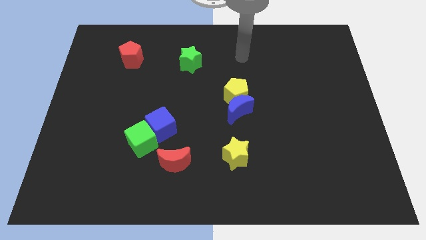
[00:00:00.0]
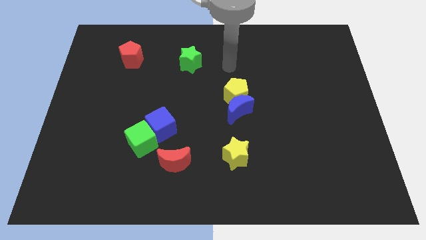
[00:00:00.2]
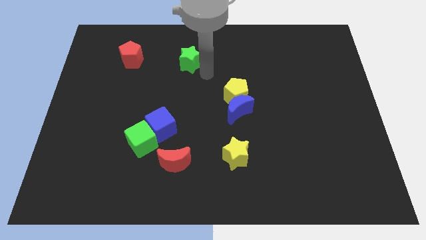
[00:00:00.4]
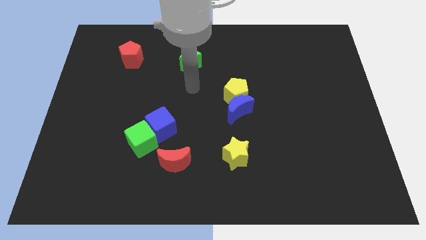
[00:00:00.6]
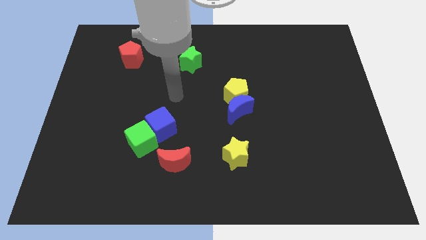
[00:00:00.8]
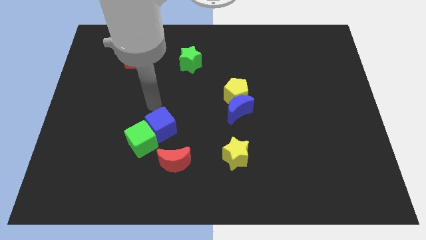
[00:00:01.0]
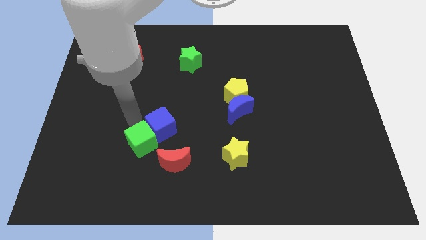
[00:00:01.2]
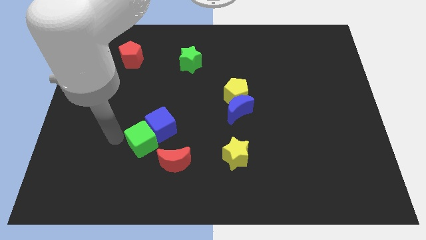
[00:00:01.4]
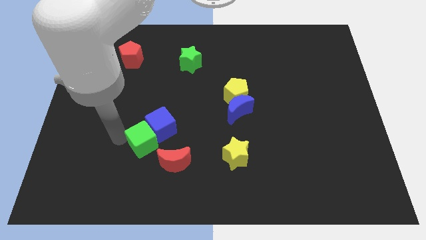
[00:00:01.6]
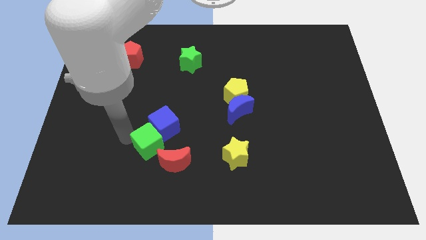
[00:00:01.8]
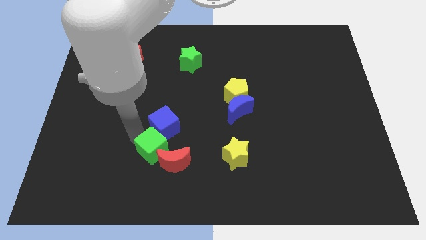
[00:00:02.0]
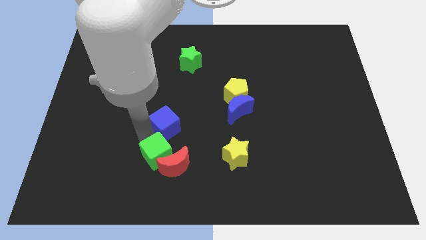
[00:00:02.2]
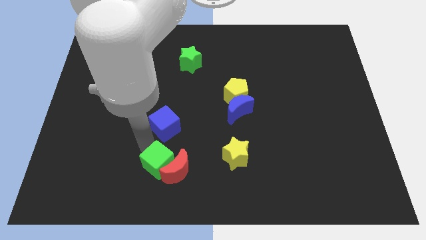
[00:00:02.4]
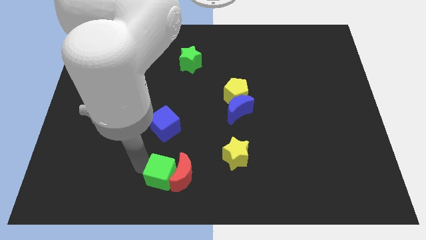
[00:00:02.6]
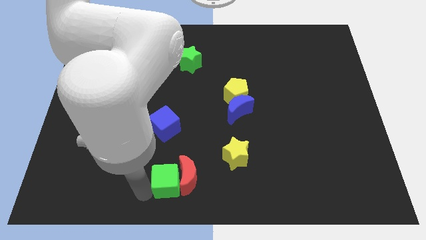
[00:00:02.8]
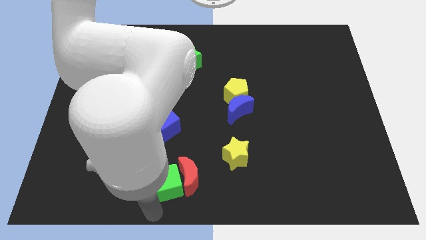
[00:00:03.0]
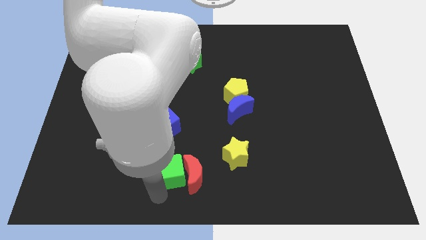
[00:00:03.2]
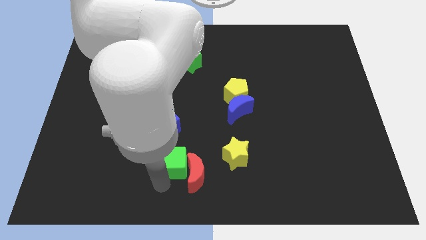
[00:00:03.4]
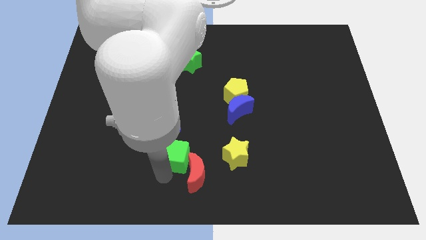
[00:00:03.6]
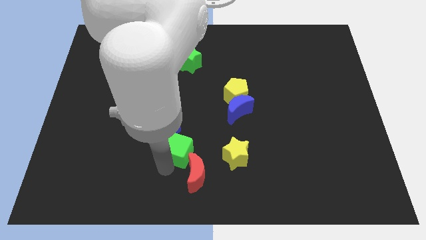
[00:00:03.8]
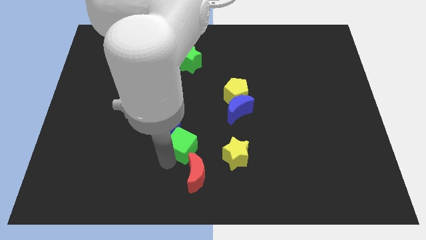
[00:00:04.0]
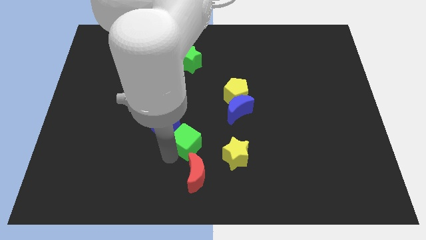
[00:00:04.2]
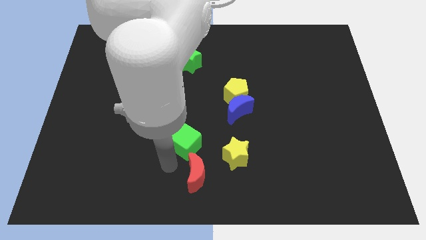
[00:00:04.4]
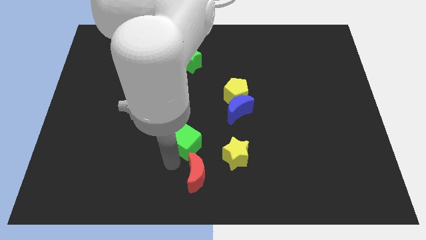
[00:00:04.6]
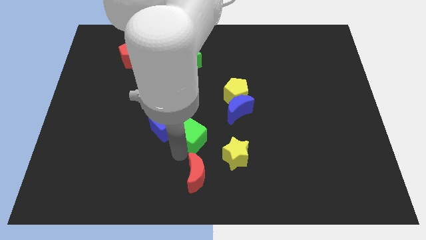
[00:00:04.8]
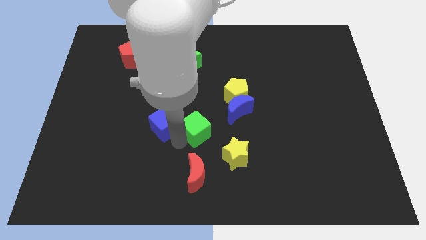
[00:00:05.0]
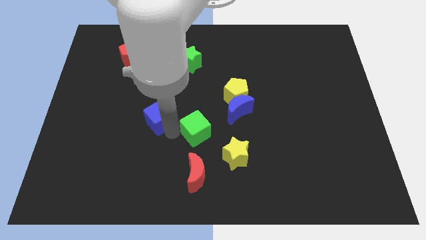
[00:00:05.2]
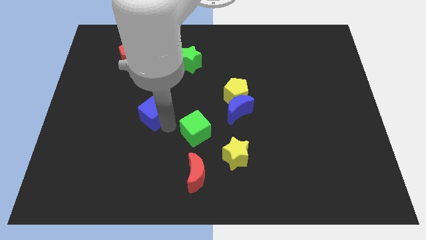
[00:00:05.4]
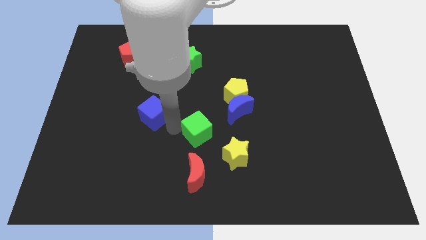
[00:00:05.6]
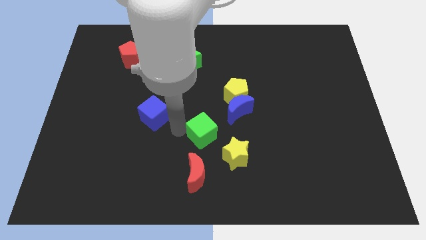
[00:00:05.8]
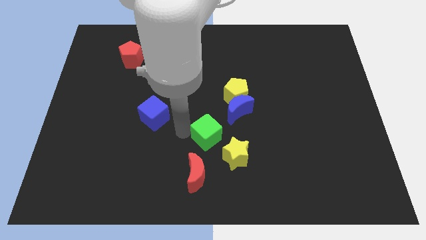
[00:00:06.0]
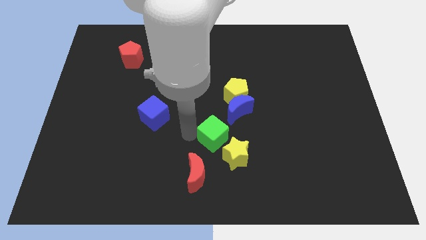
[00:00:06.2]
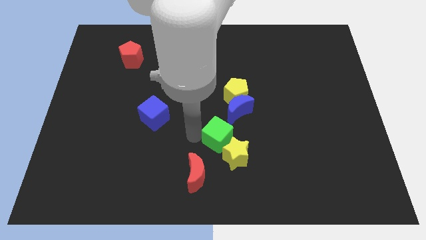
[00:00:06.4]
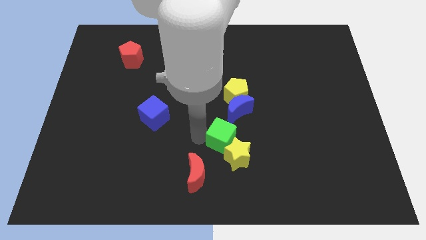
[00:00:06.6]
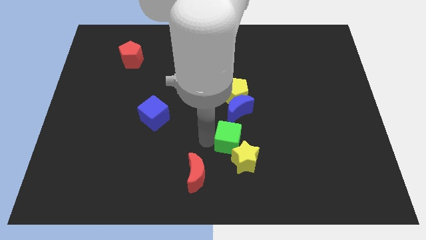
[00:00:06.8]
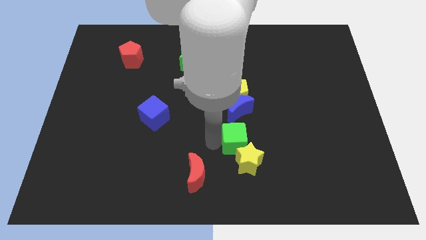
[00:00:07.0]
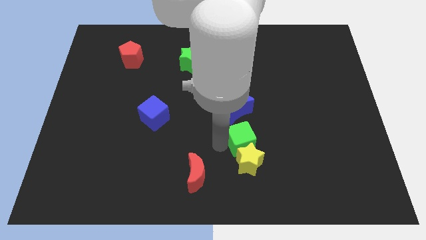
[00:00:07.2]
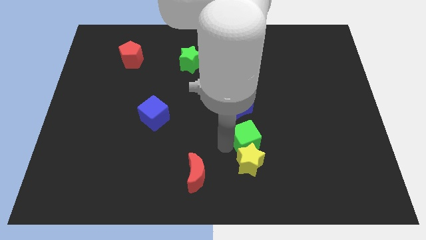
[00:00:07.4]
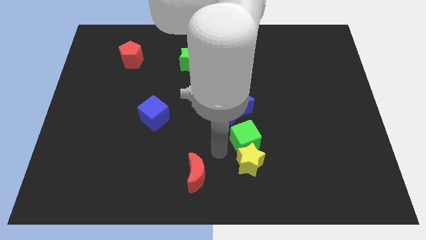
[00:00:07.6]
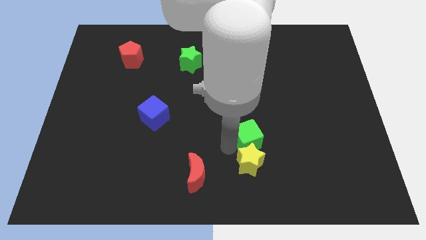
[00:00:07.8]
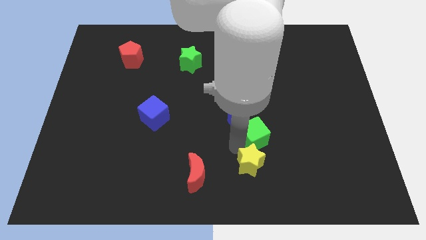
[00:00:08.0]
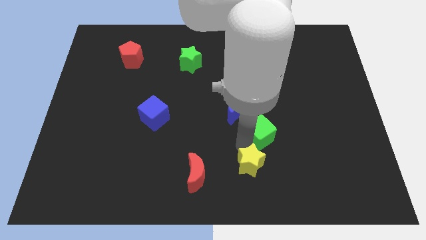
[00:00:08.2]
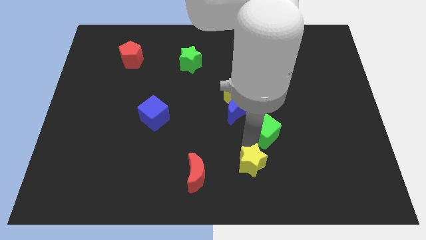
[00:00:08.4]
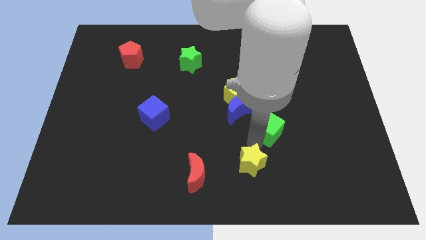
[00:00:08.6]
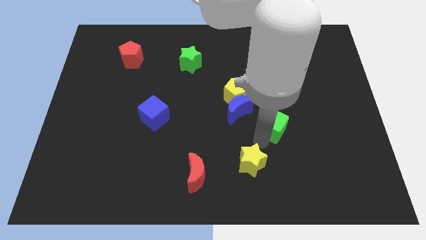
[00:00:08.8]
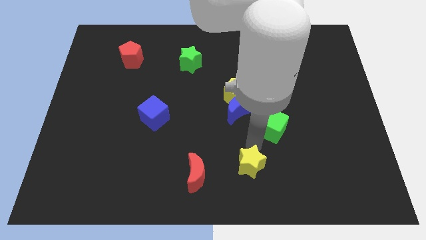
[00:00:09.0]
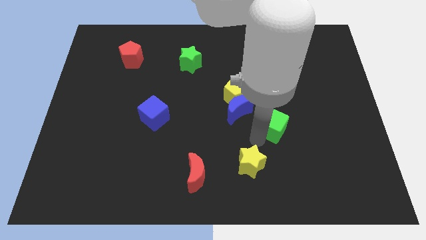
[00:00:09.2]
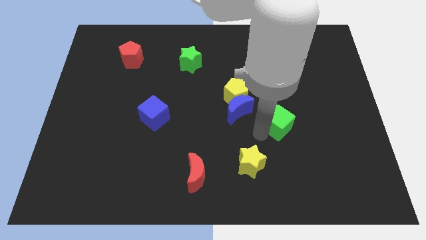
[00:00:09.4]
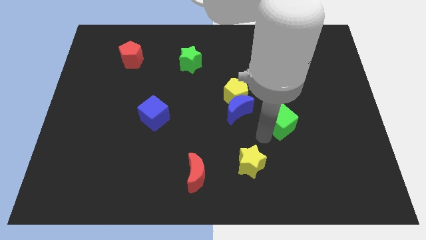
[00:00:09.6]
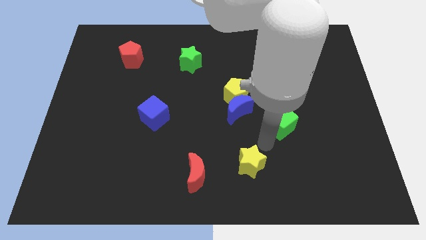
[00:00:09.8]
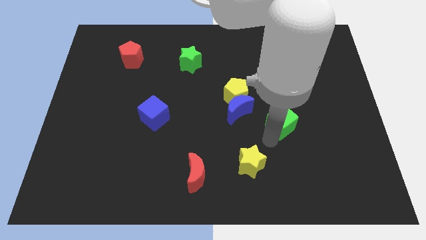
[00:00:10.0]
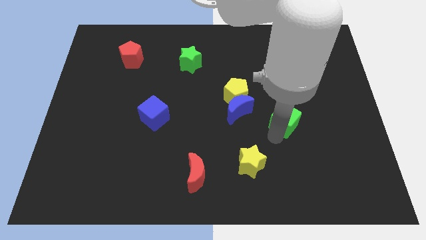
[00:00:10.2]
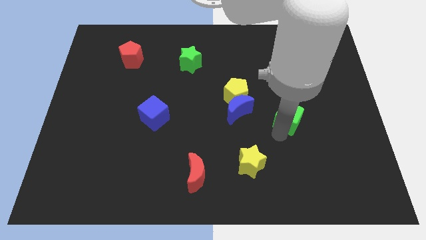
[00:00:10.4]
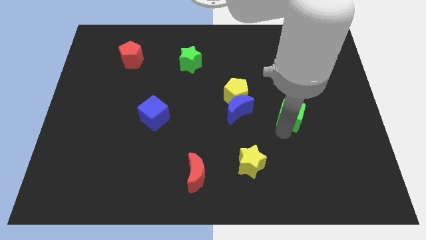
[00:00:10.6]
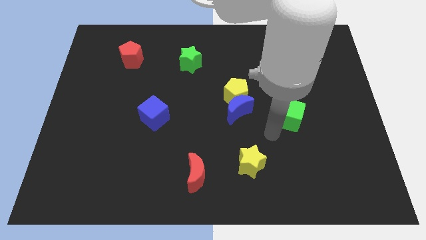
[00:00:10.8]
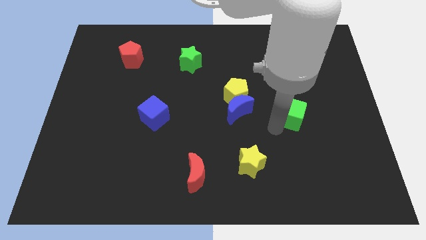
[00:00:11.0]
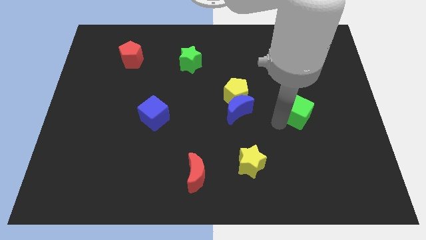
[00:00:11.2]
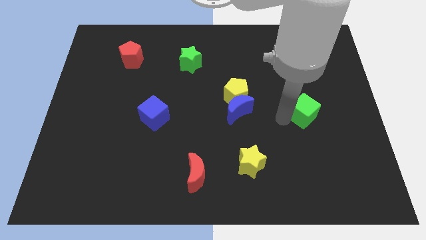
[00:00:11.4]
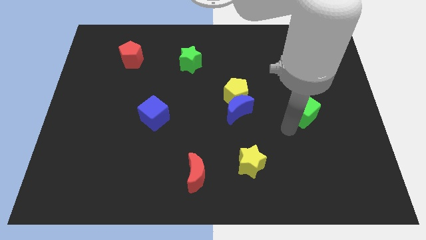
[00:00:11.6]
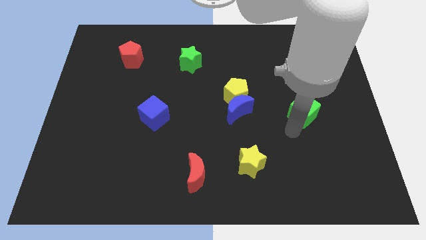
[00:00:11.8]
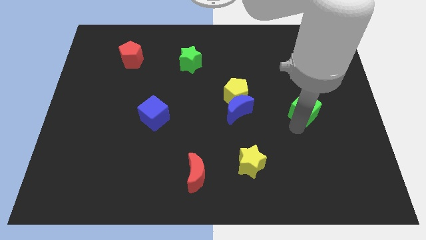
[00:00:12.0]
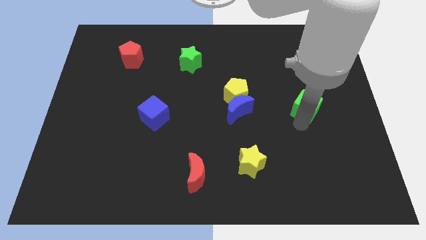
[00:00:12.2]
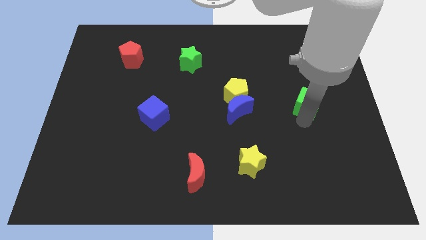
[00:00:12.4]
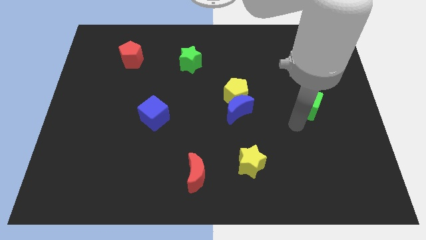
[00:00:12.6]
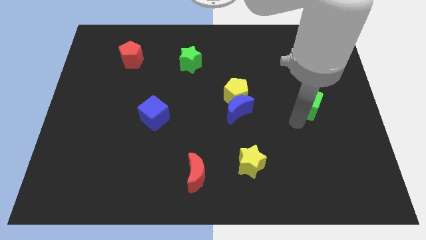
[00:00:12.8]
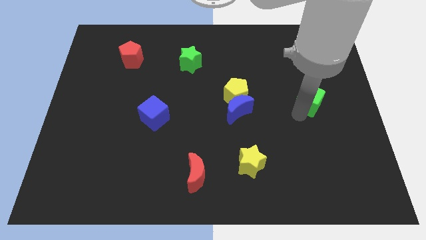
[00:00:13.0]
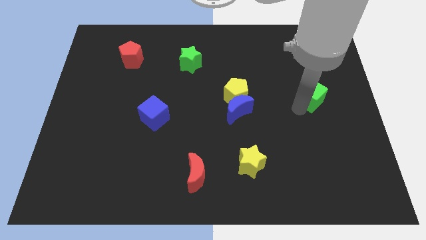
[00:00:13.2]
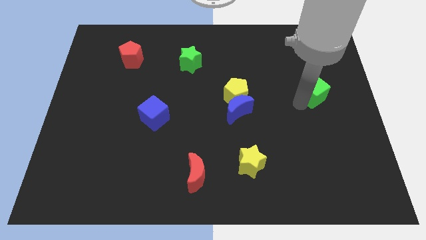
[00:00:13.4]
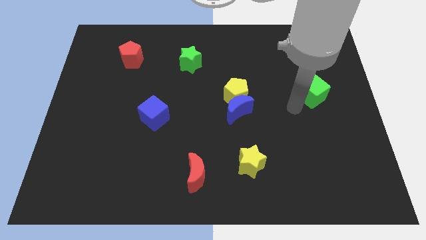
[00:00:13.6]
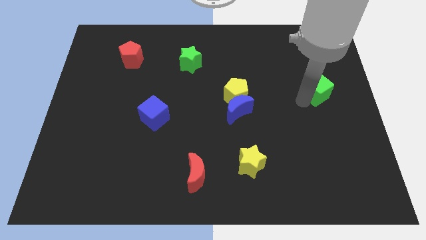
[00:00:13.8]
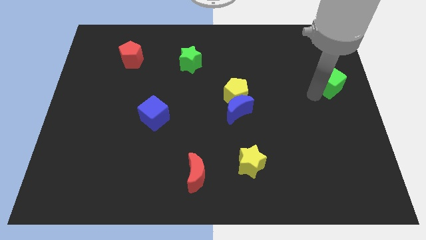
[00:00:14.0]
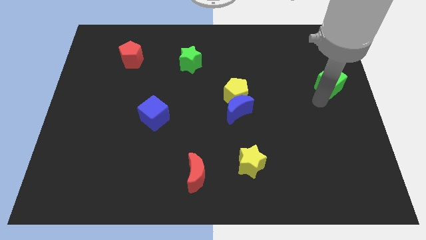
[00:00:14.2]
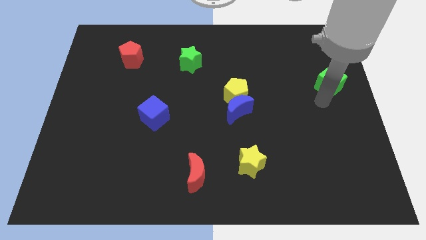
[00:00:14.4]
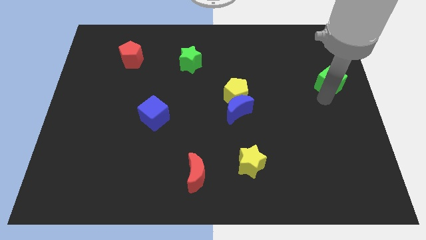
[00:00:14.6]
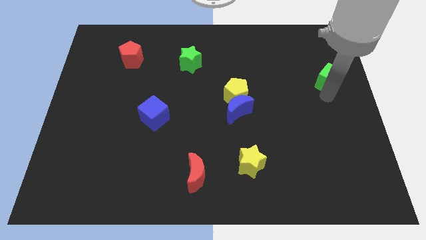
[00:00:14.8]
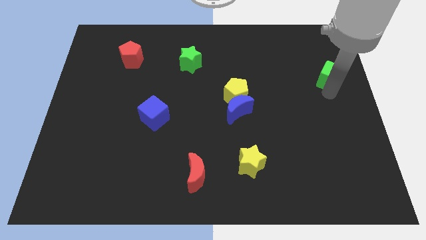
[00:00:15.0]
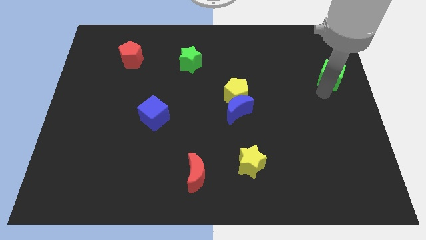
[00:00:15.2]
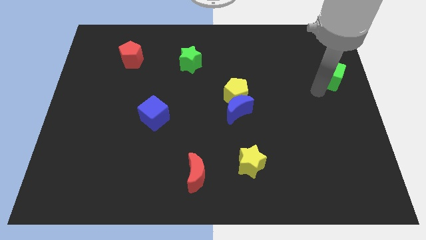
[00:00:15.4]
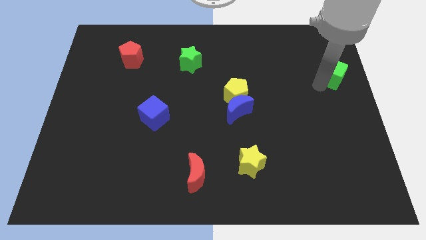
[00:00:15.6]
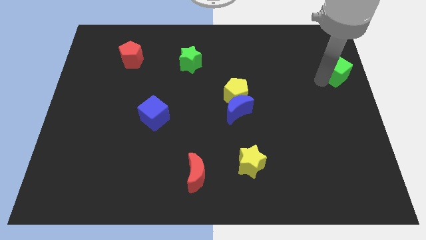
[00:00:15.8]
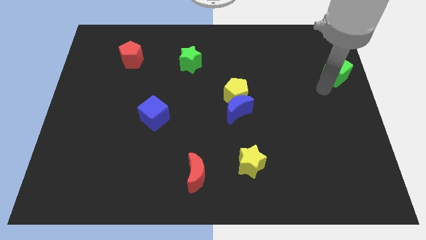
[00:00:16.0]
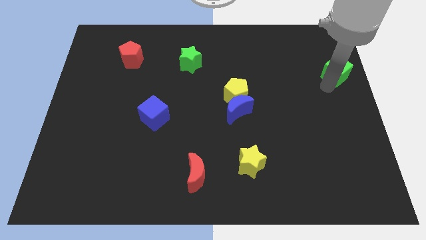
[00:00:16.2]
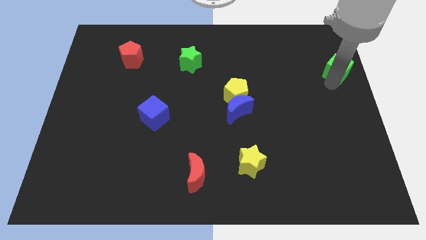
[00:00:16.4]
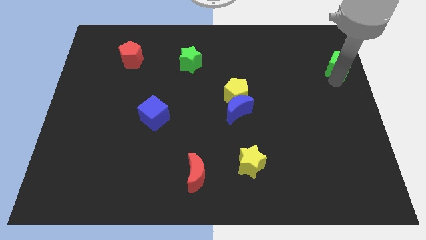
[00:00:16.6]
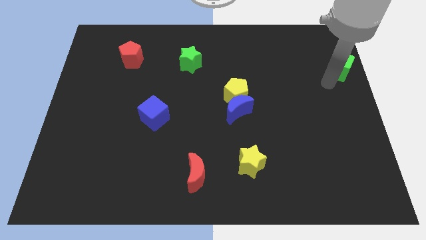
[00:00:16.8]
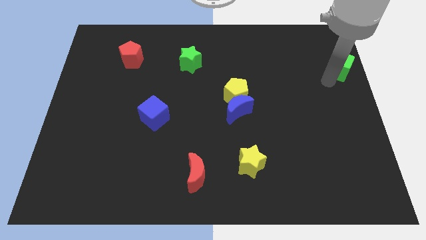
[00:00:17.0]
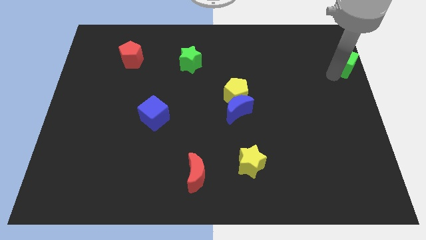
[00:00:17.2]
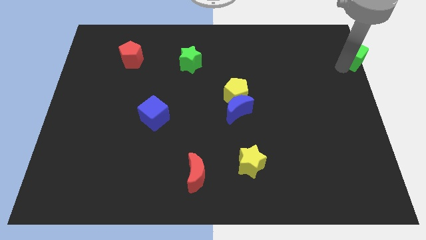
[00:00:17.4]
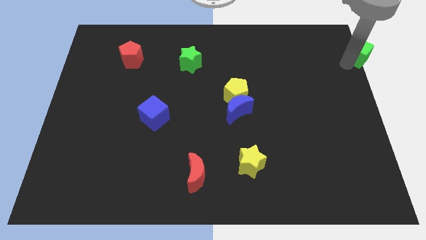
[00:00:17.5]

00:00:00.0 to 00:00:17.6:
put the green cube to the upper right corner
